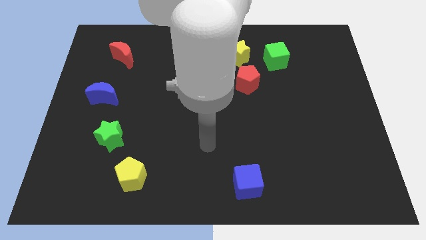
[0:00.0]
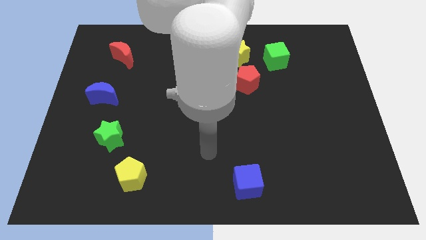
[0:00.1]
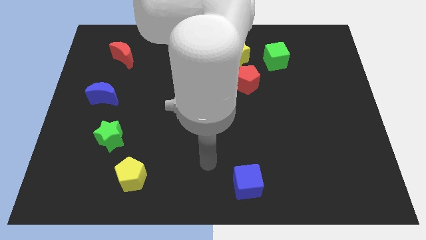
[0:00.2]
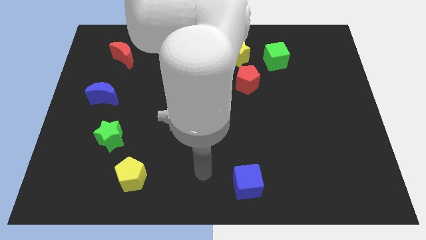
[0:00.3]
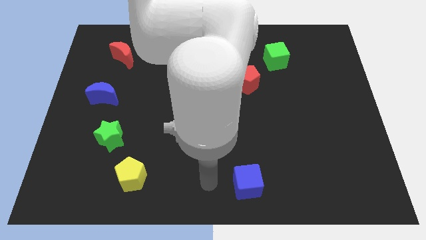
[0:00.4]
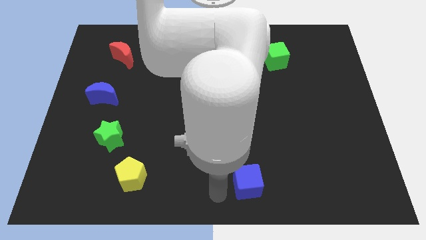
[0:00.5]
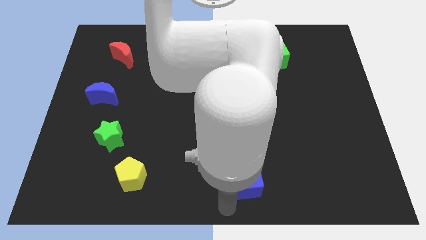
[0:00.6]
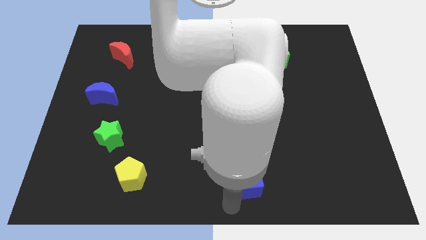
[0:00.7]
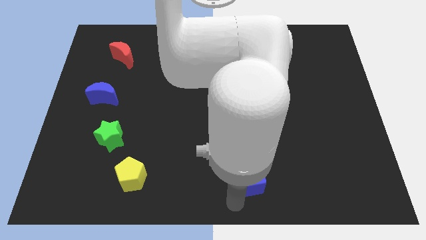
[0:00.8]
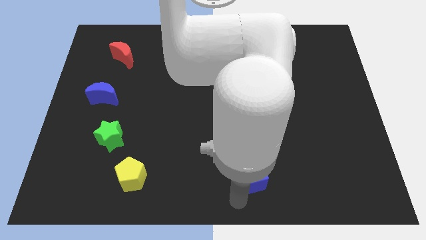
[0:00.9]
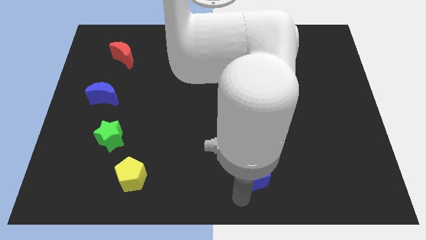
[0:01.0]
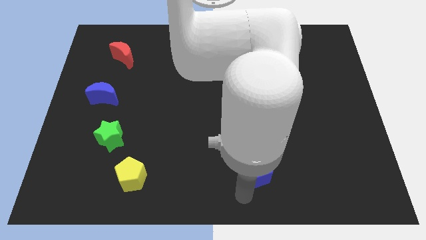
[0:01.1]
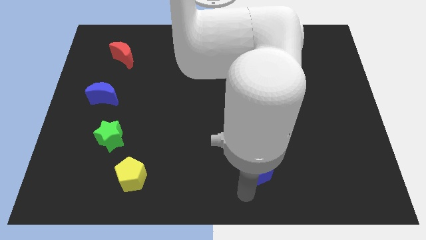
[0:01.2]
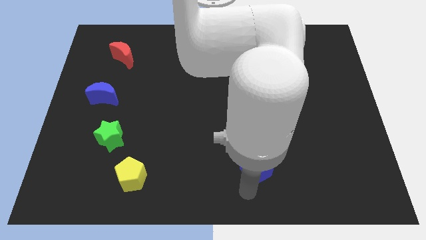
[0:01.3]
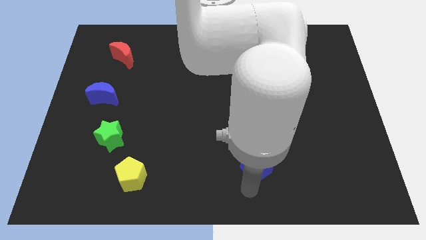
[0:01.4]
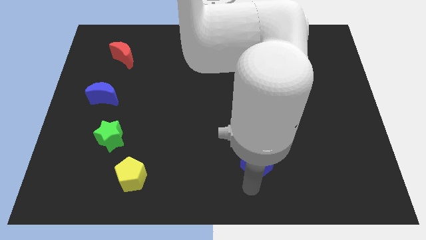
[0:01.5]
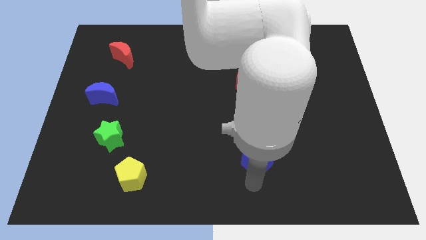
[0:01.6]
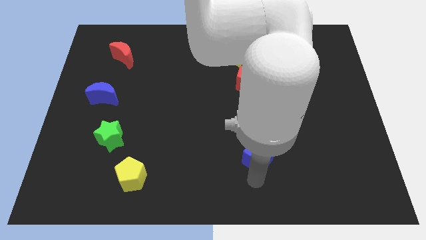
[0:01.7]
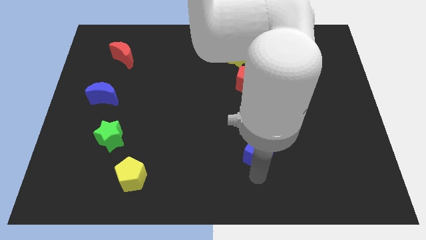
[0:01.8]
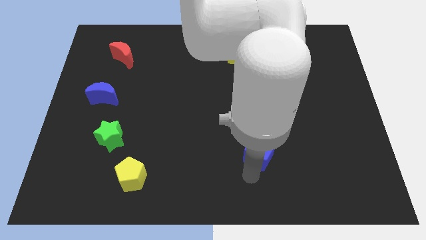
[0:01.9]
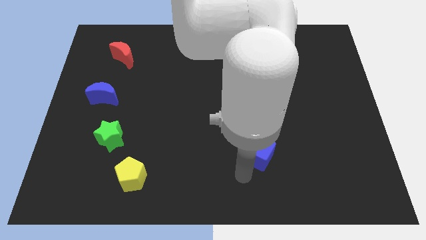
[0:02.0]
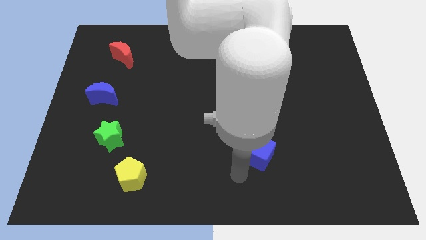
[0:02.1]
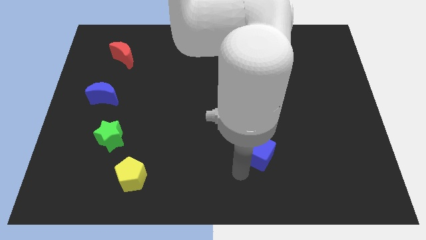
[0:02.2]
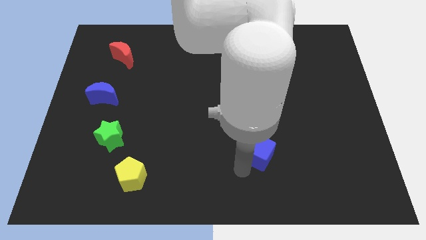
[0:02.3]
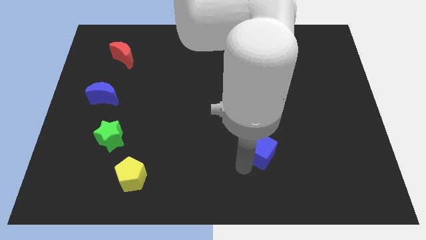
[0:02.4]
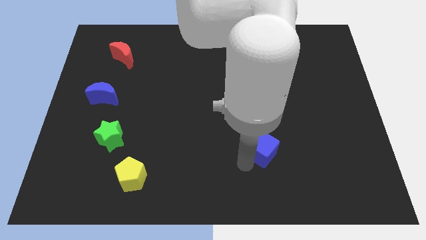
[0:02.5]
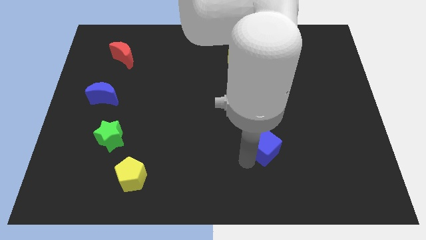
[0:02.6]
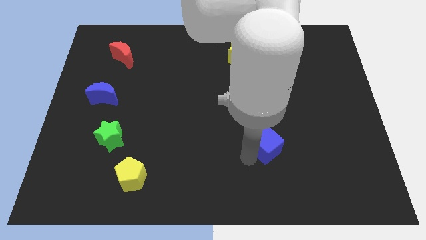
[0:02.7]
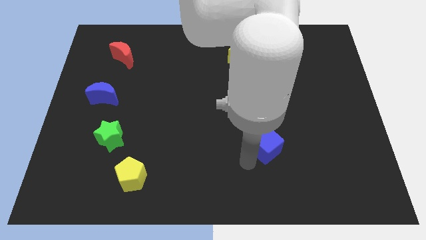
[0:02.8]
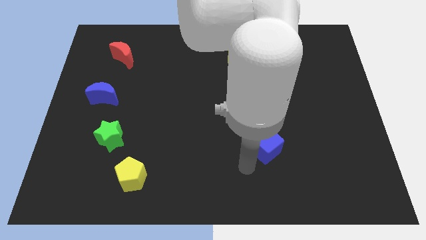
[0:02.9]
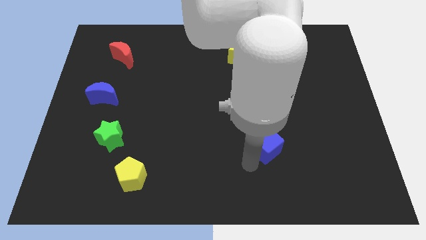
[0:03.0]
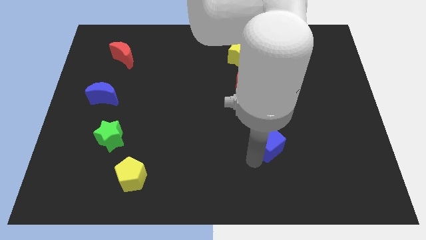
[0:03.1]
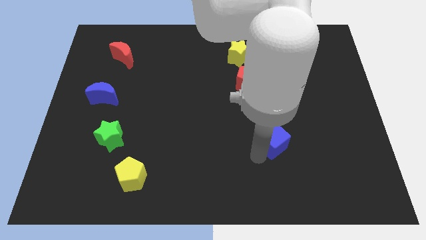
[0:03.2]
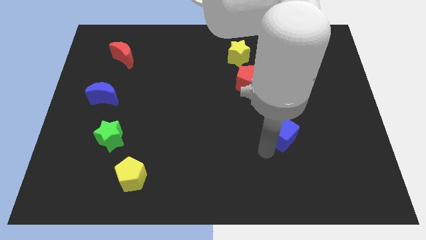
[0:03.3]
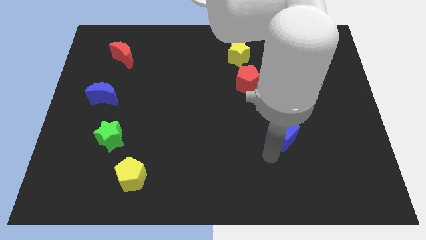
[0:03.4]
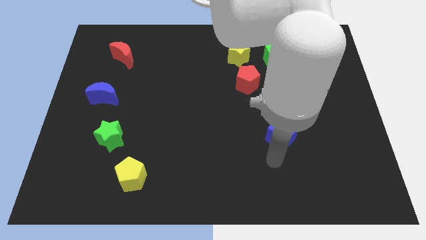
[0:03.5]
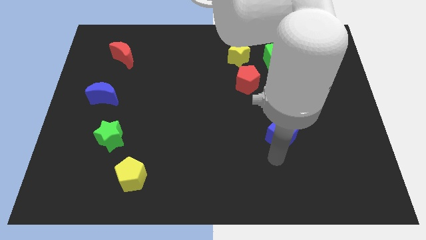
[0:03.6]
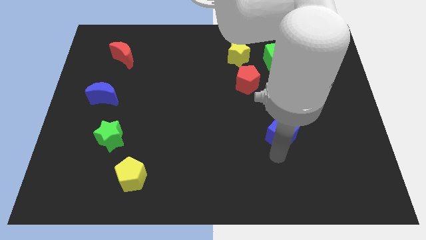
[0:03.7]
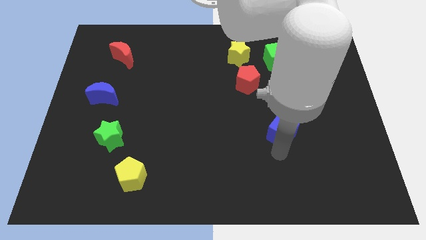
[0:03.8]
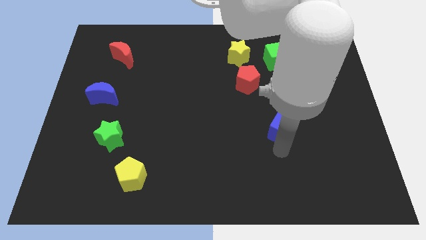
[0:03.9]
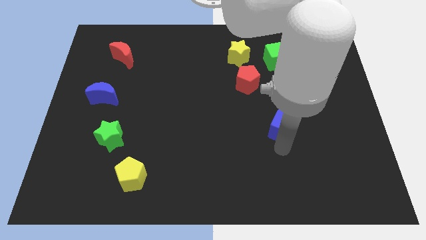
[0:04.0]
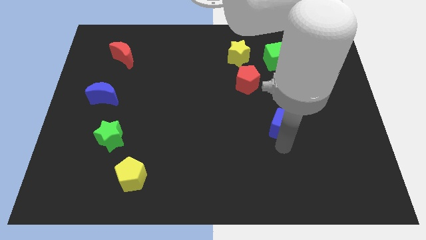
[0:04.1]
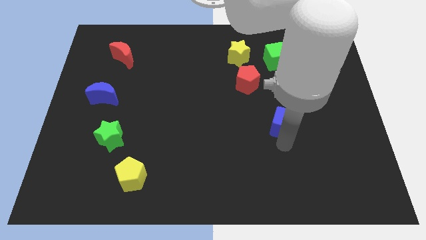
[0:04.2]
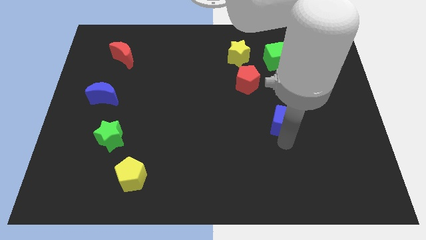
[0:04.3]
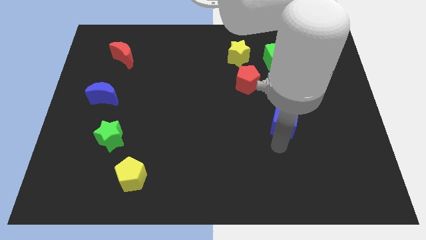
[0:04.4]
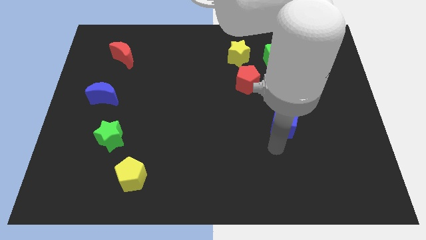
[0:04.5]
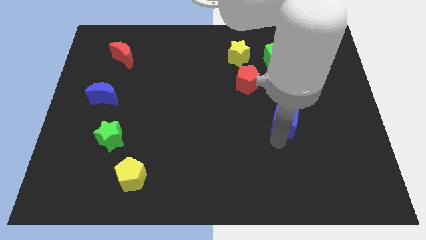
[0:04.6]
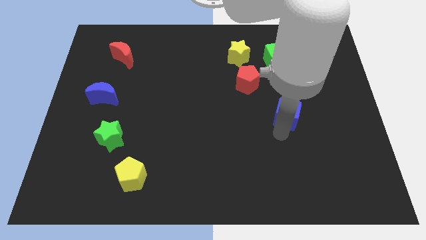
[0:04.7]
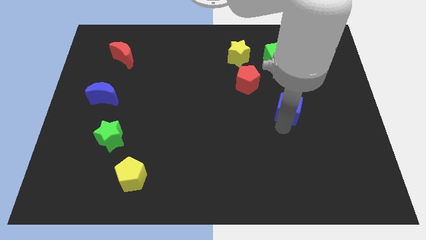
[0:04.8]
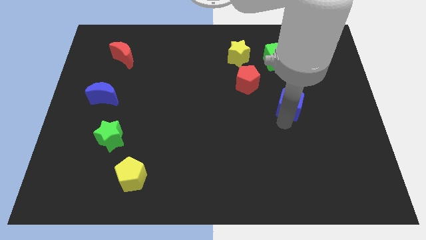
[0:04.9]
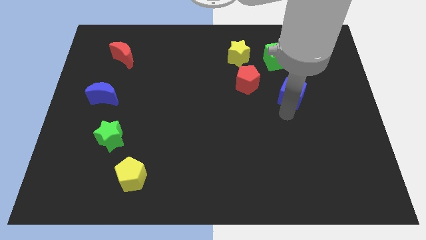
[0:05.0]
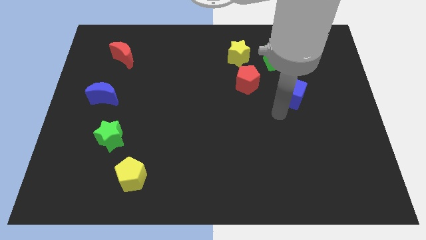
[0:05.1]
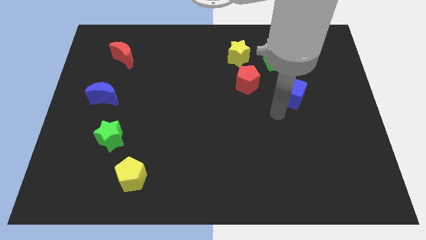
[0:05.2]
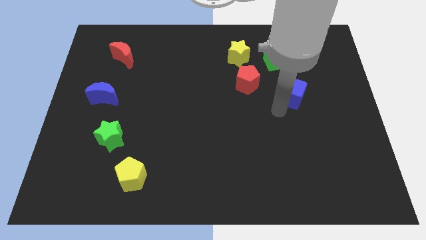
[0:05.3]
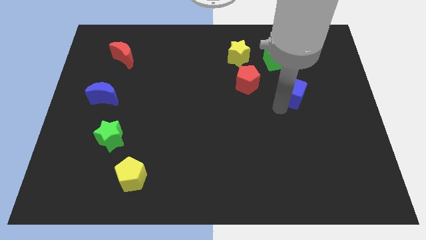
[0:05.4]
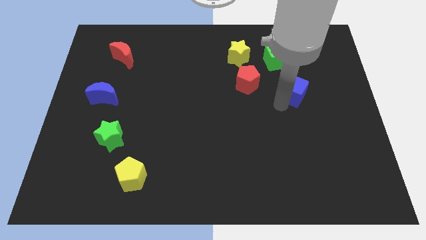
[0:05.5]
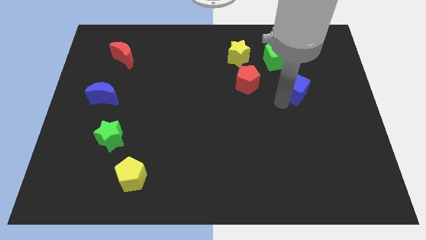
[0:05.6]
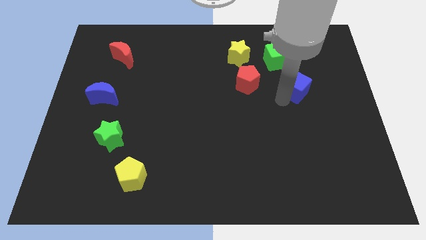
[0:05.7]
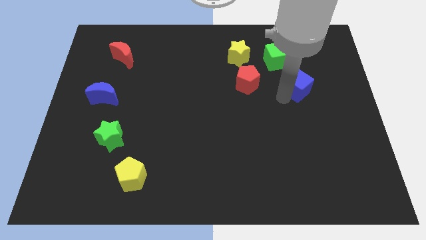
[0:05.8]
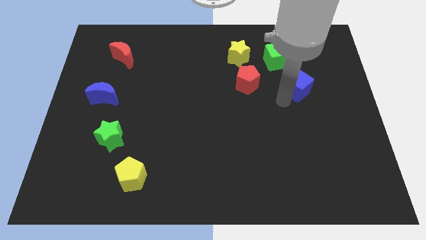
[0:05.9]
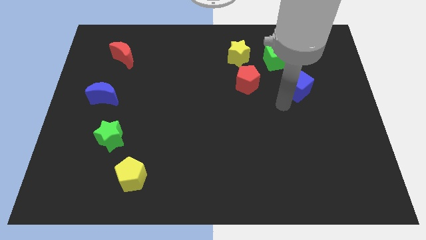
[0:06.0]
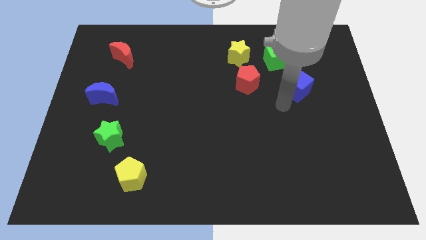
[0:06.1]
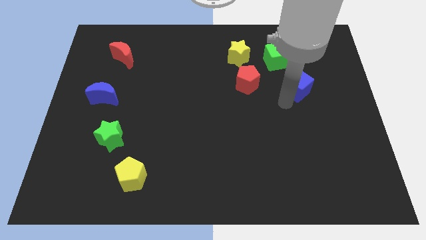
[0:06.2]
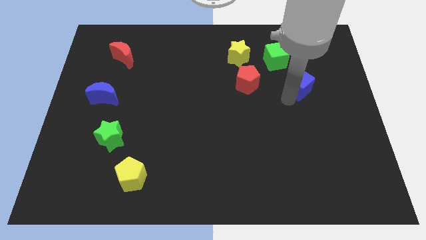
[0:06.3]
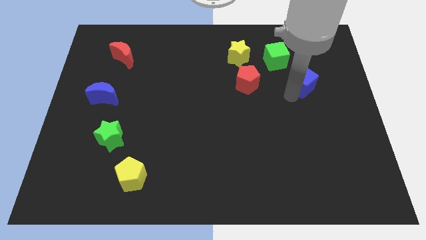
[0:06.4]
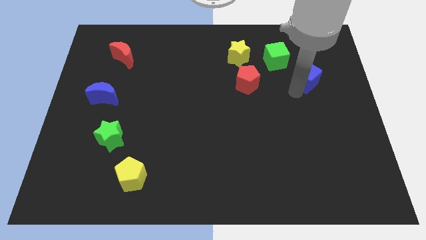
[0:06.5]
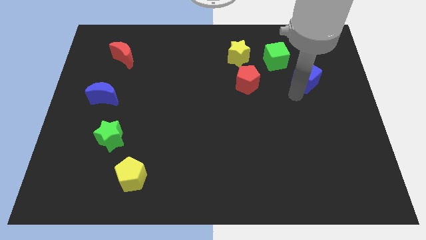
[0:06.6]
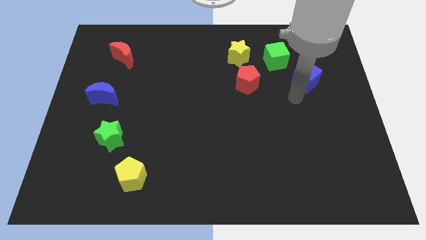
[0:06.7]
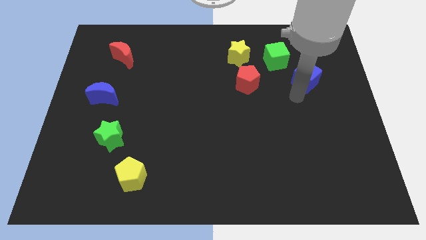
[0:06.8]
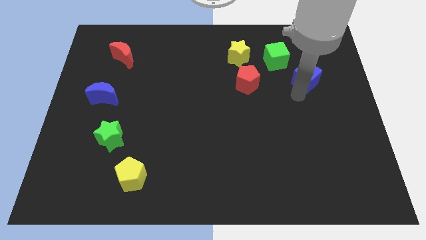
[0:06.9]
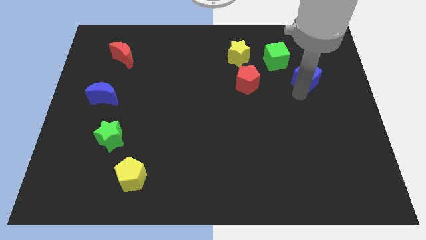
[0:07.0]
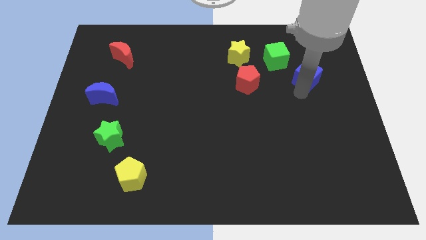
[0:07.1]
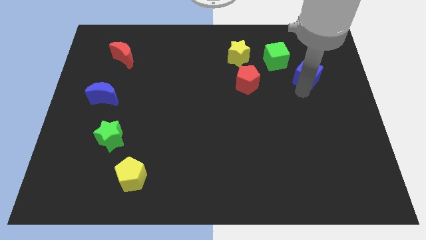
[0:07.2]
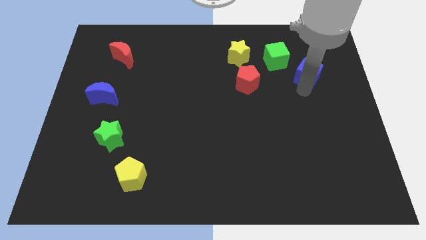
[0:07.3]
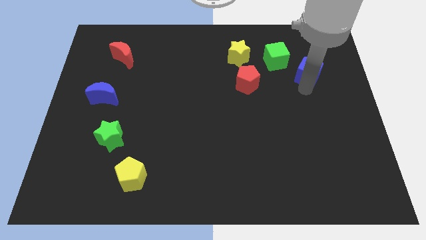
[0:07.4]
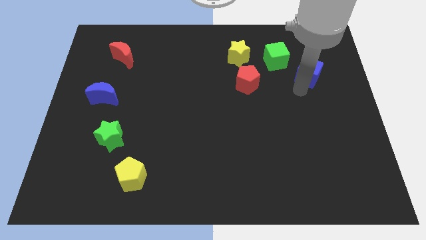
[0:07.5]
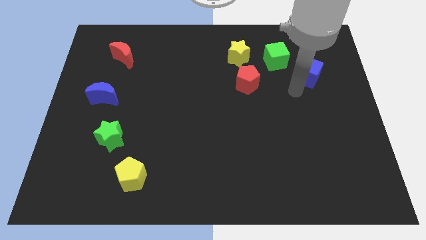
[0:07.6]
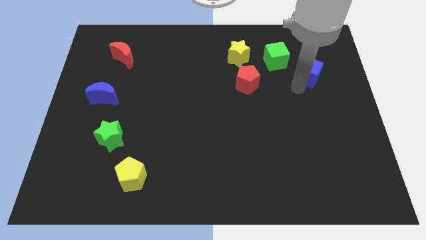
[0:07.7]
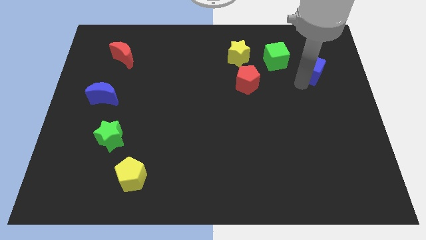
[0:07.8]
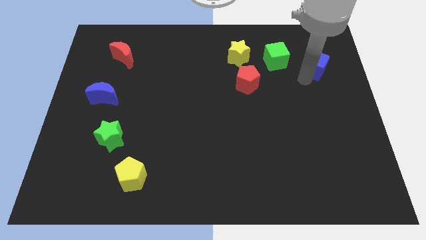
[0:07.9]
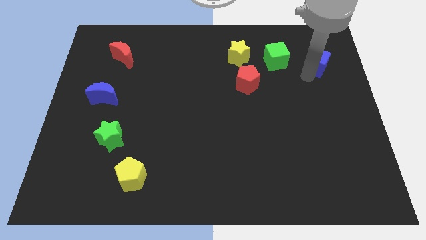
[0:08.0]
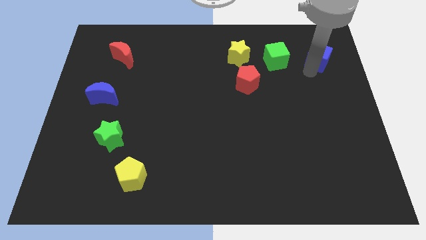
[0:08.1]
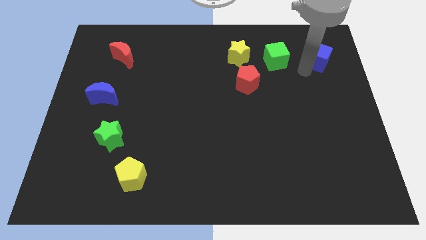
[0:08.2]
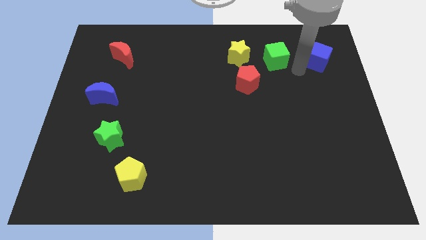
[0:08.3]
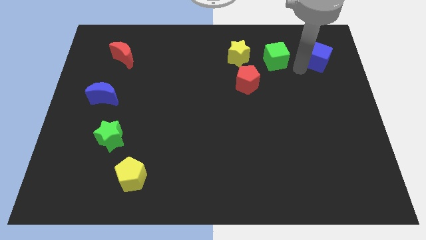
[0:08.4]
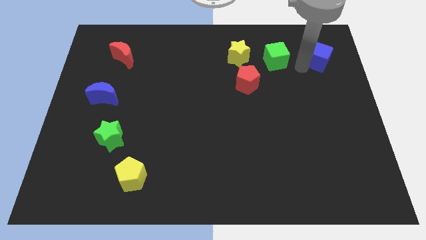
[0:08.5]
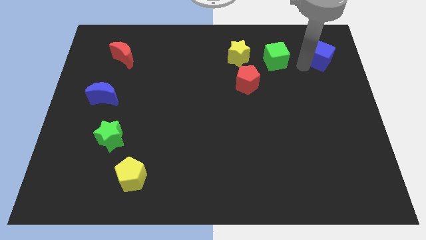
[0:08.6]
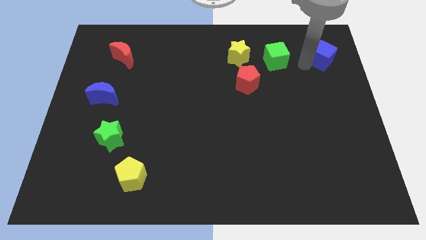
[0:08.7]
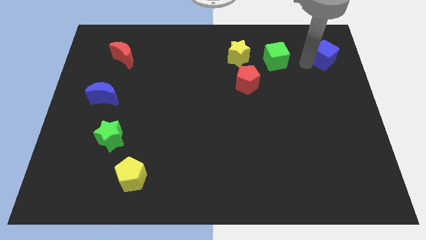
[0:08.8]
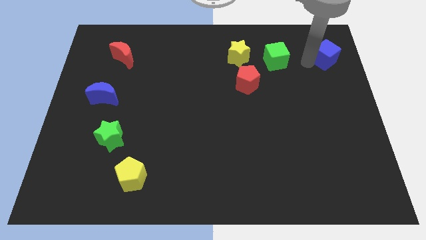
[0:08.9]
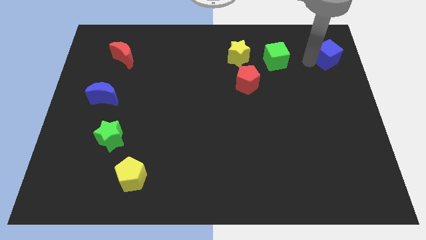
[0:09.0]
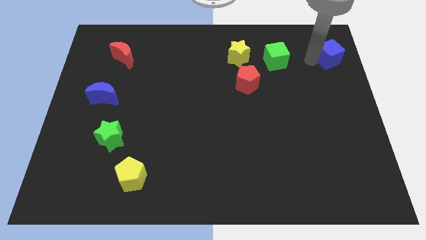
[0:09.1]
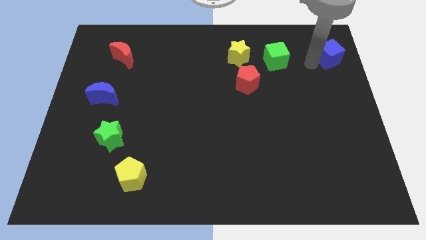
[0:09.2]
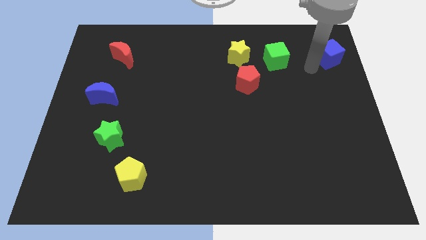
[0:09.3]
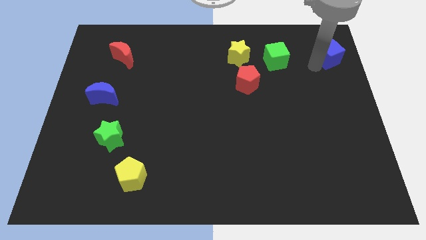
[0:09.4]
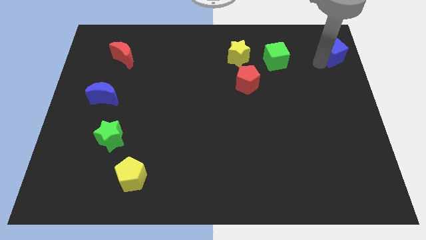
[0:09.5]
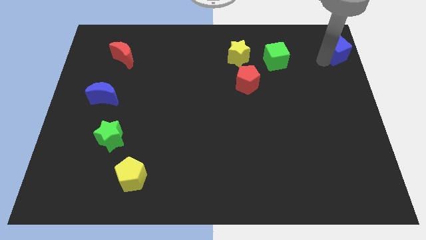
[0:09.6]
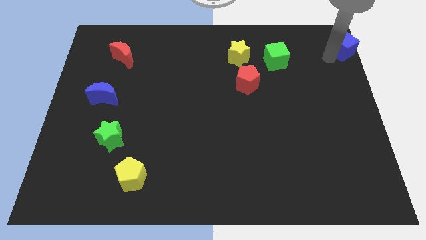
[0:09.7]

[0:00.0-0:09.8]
move the blue cube to the upper right corner
